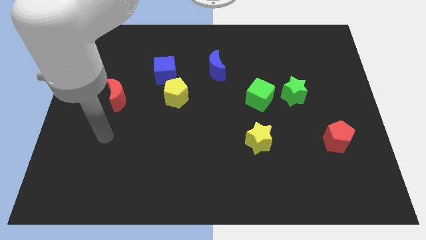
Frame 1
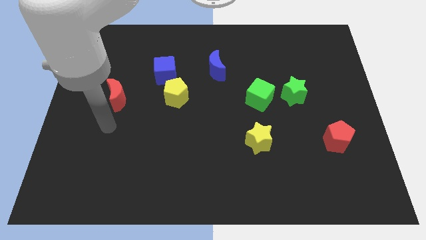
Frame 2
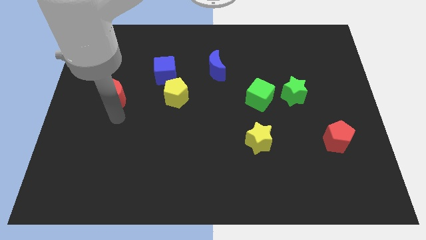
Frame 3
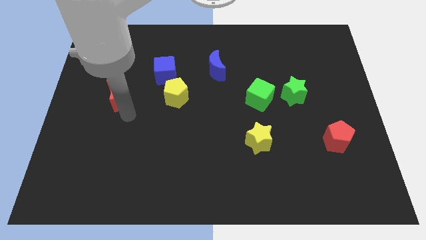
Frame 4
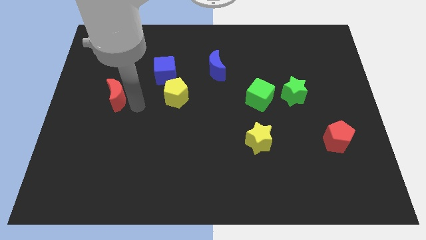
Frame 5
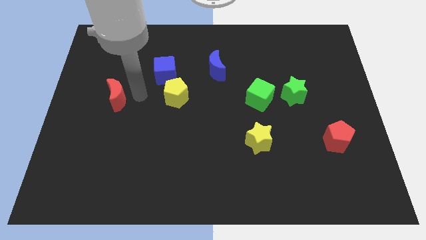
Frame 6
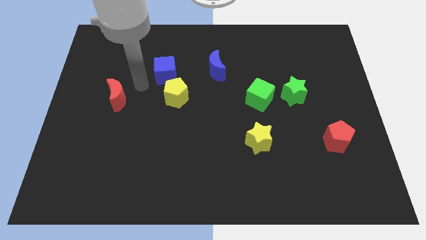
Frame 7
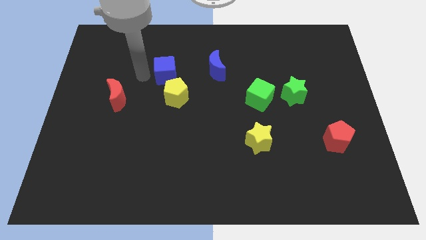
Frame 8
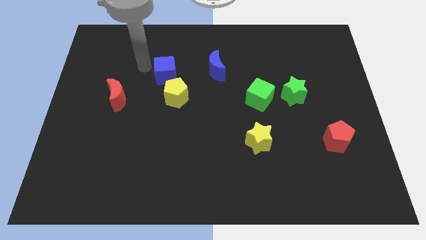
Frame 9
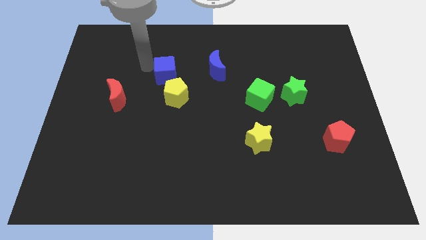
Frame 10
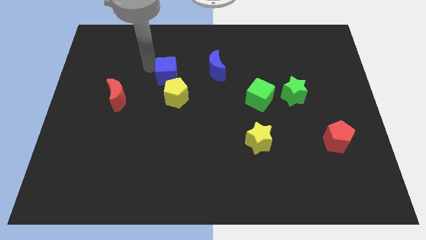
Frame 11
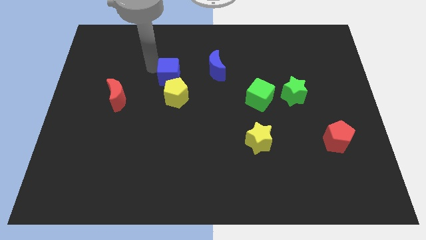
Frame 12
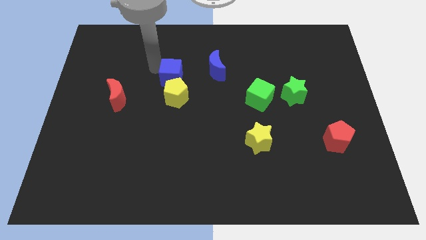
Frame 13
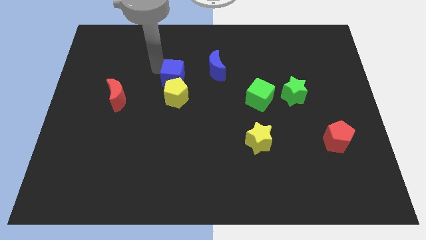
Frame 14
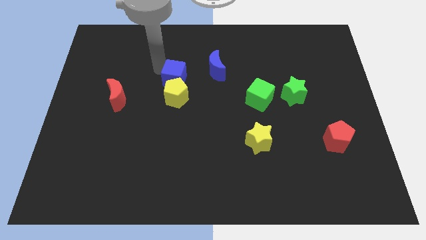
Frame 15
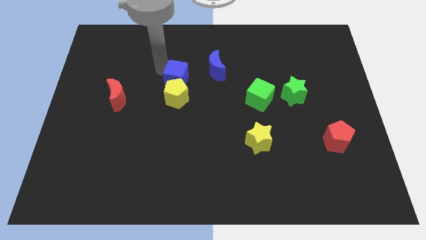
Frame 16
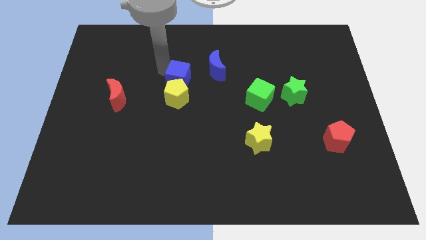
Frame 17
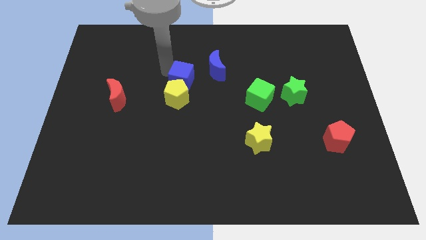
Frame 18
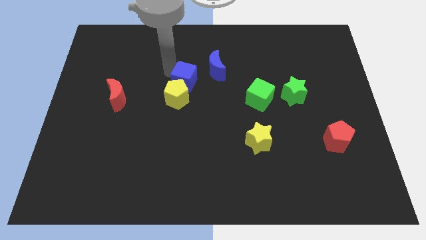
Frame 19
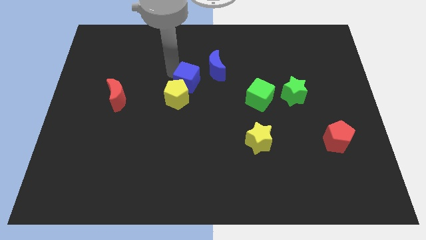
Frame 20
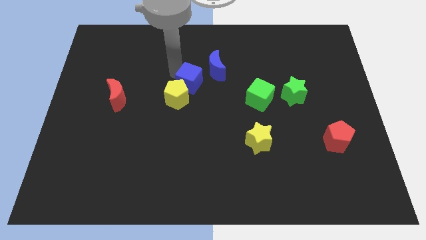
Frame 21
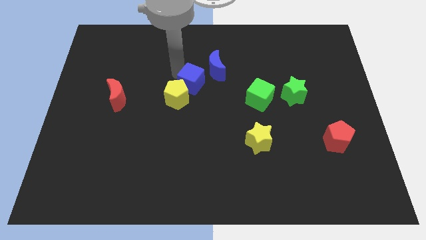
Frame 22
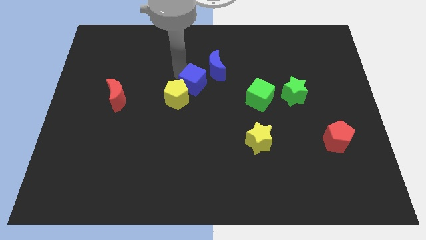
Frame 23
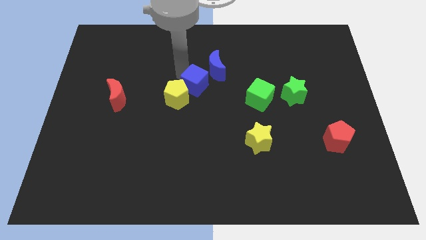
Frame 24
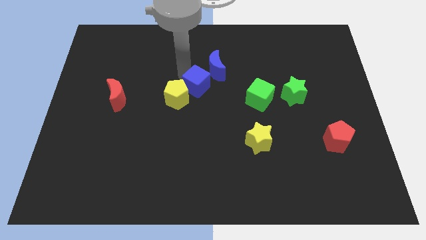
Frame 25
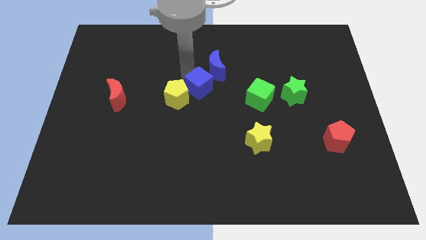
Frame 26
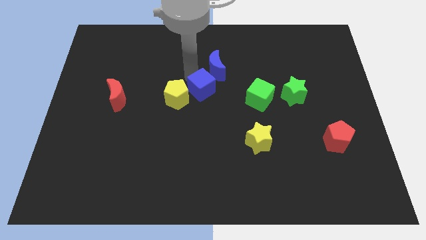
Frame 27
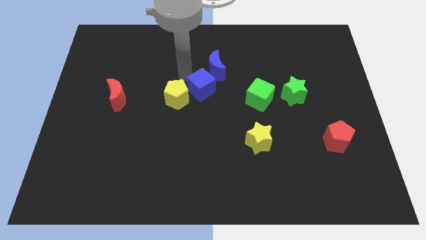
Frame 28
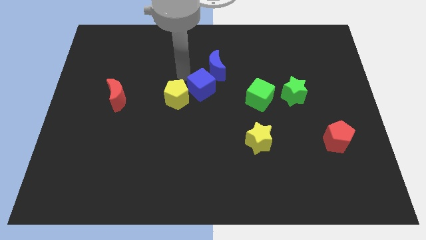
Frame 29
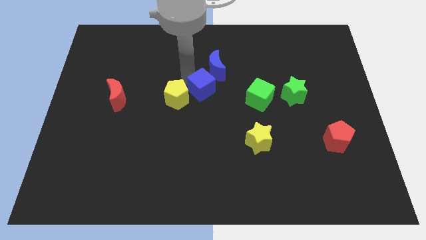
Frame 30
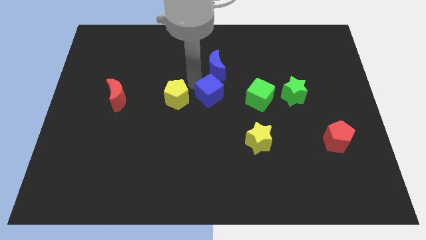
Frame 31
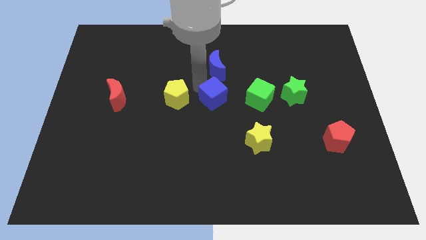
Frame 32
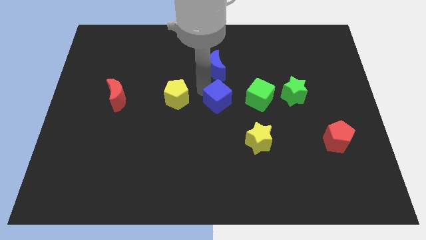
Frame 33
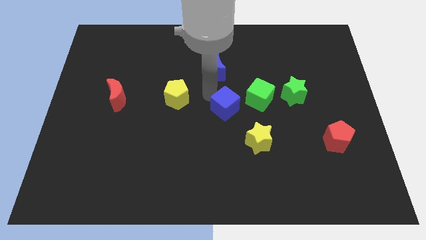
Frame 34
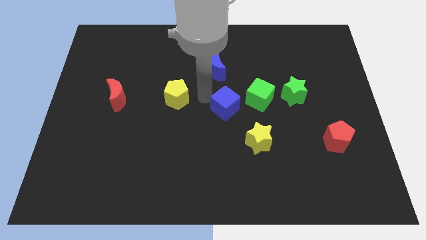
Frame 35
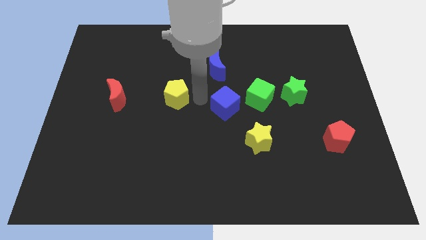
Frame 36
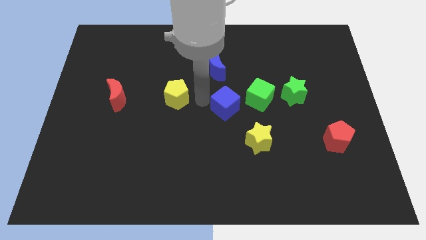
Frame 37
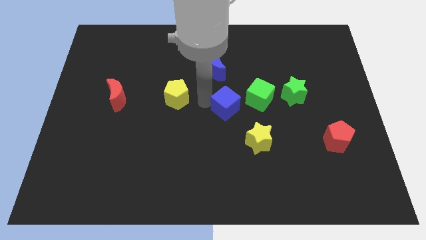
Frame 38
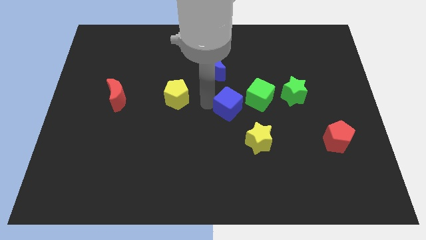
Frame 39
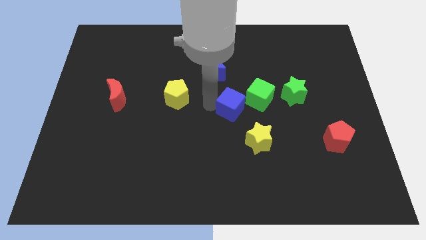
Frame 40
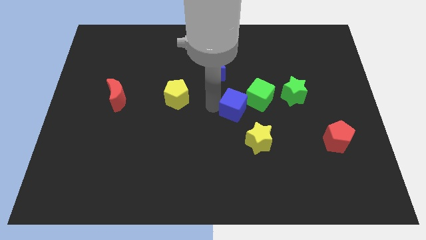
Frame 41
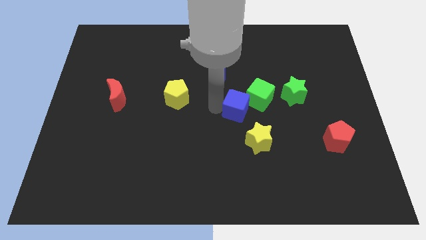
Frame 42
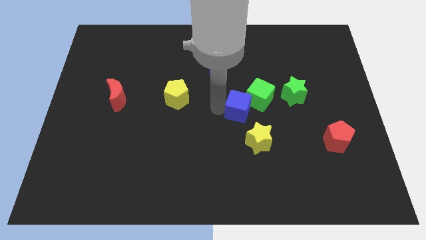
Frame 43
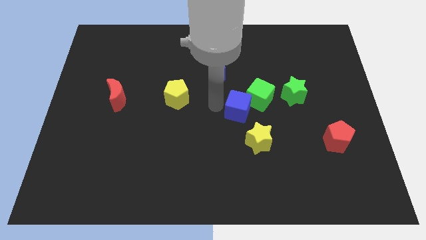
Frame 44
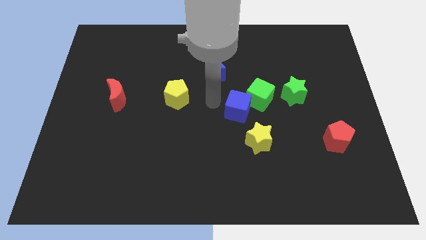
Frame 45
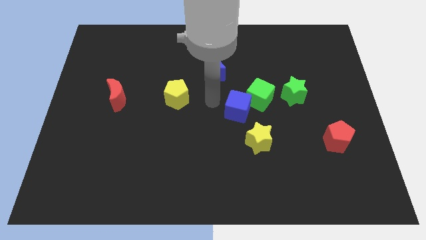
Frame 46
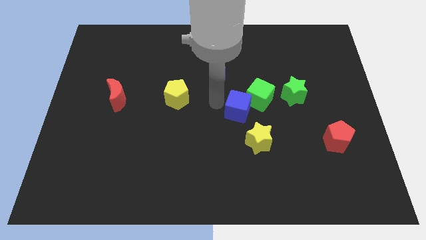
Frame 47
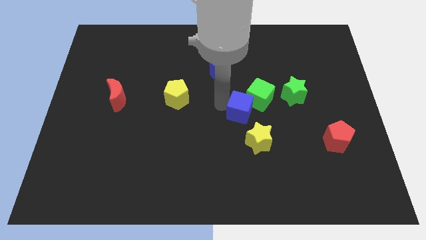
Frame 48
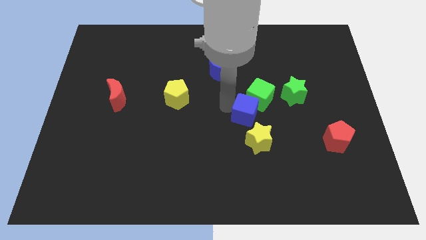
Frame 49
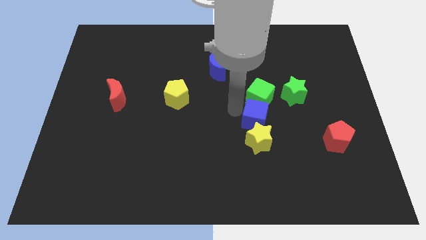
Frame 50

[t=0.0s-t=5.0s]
slide the blue cube to the top right of the yellow star

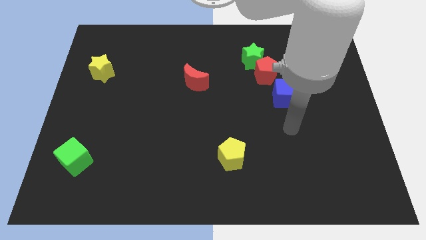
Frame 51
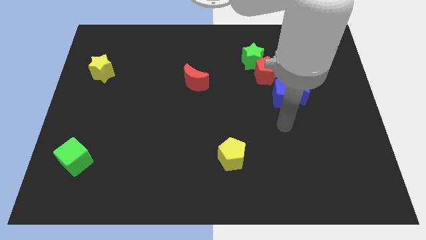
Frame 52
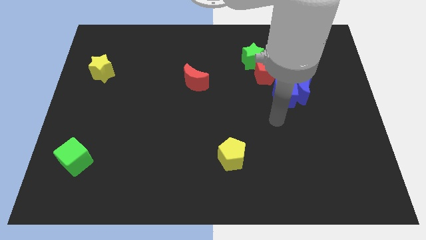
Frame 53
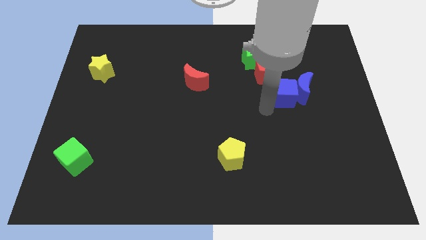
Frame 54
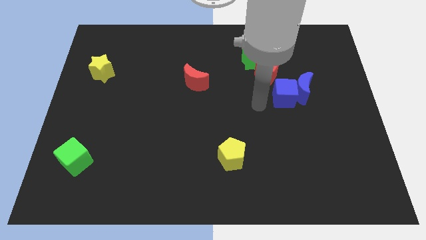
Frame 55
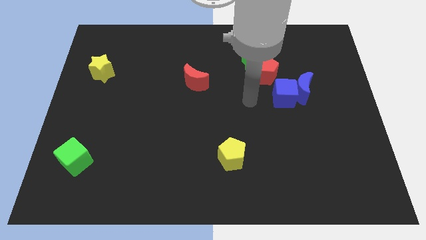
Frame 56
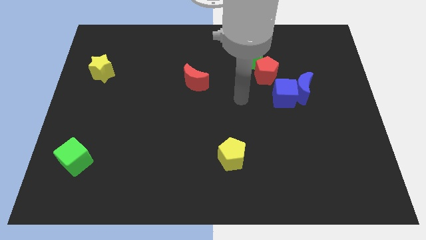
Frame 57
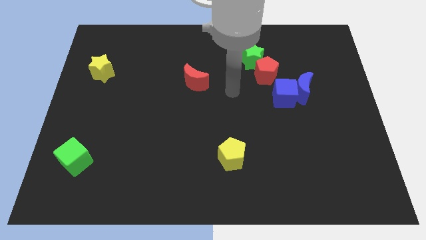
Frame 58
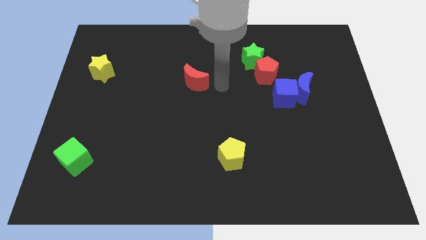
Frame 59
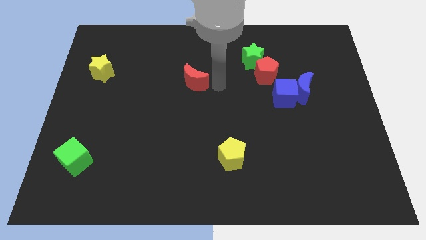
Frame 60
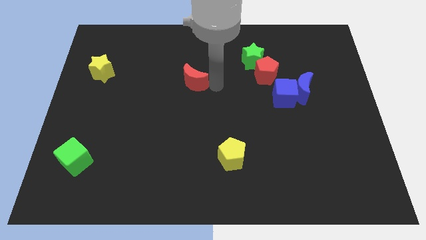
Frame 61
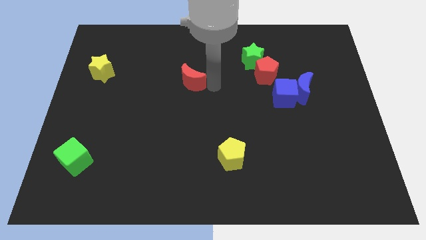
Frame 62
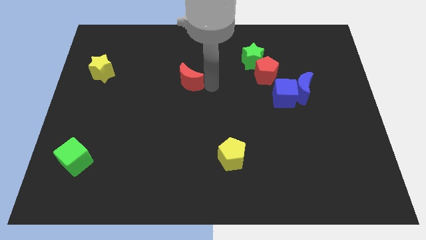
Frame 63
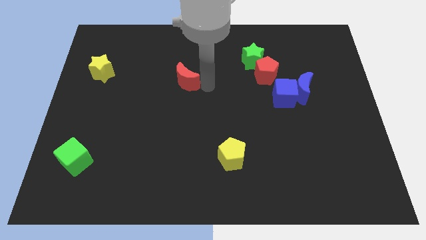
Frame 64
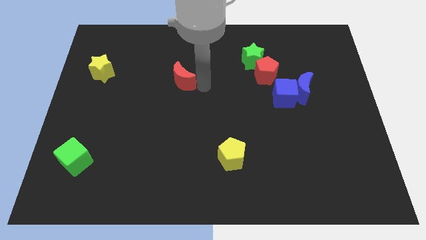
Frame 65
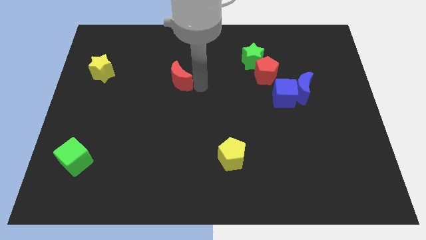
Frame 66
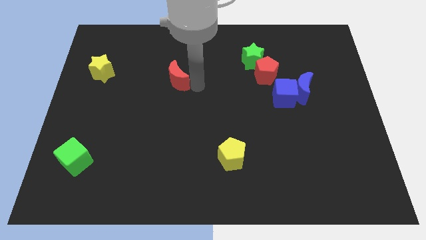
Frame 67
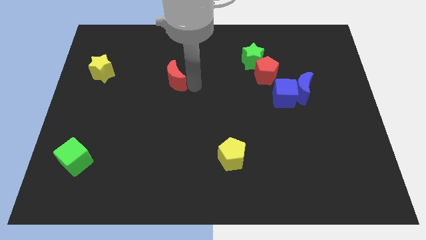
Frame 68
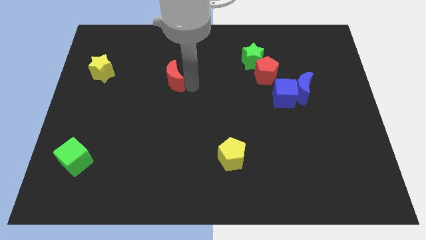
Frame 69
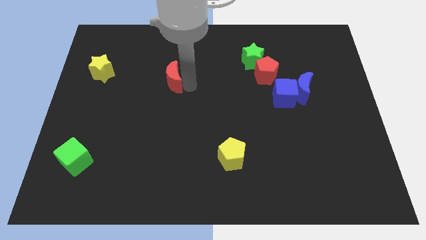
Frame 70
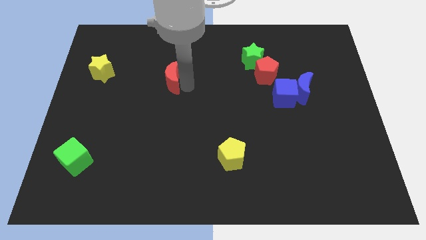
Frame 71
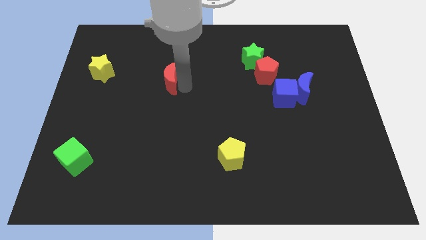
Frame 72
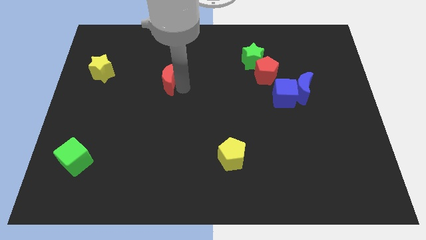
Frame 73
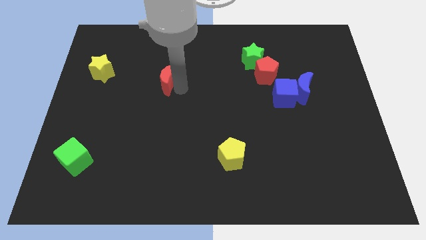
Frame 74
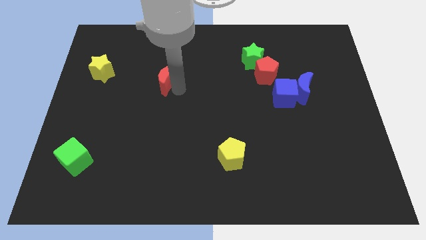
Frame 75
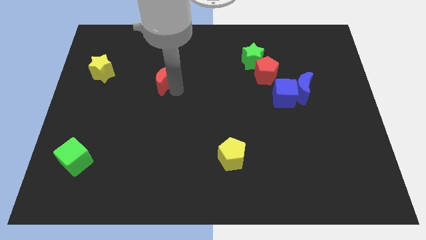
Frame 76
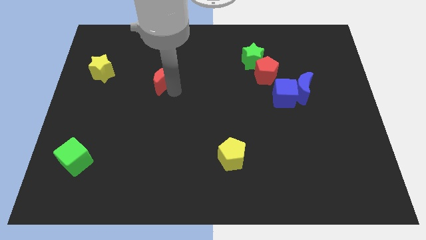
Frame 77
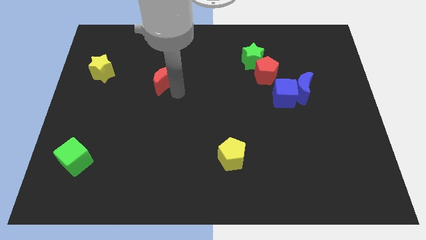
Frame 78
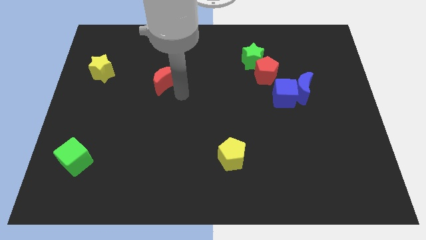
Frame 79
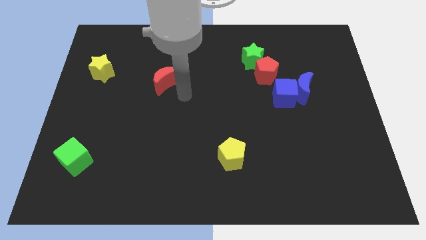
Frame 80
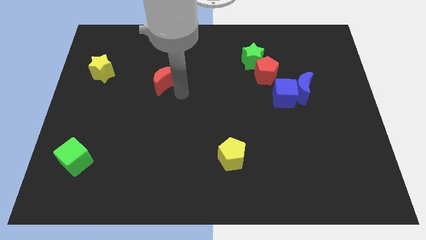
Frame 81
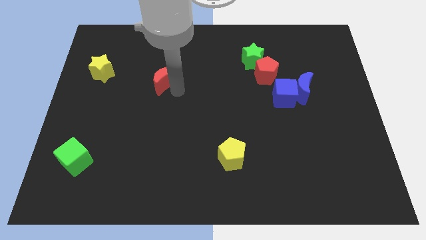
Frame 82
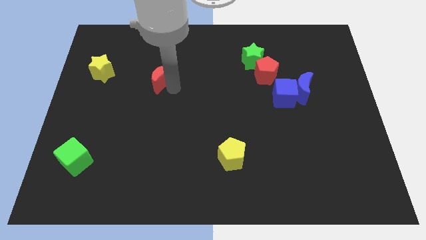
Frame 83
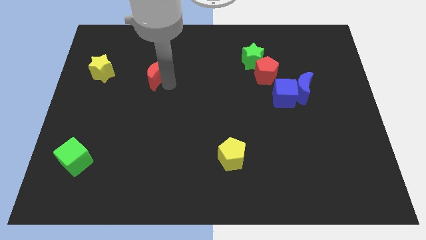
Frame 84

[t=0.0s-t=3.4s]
push the red moon to the right of the yellow star
